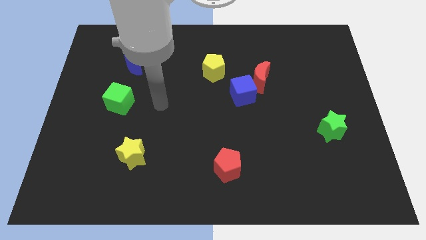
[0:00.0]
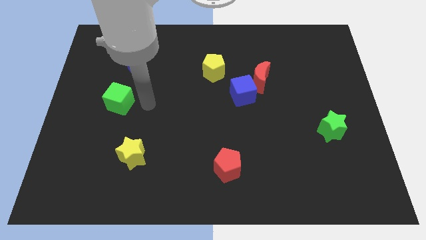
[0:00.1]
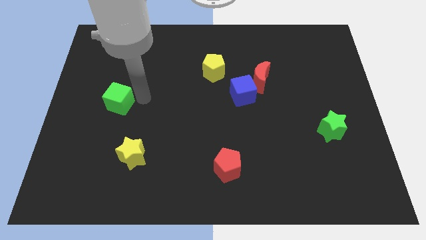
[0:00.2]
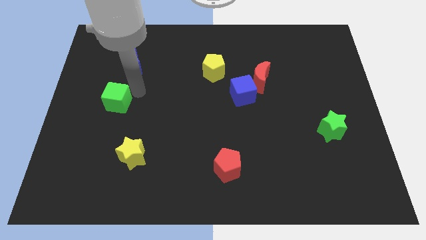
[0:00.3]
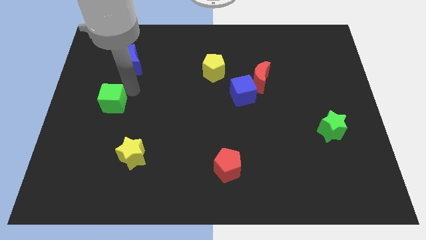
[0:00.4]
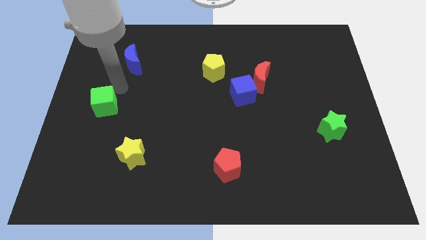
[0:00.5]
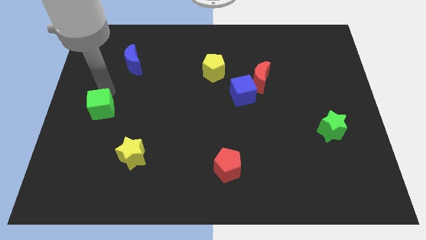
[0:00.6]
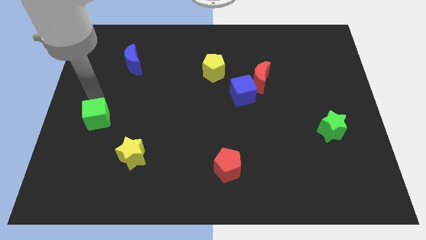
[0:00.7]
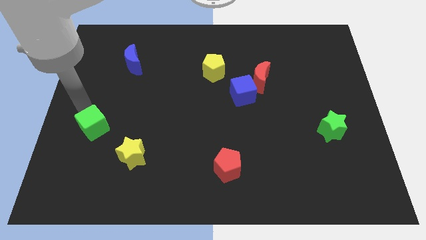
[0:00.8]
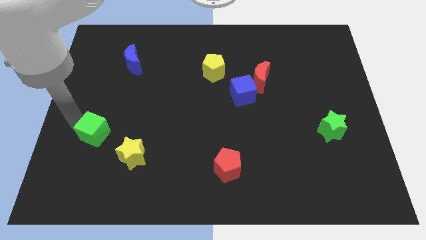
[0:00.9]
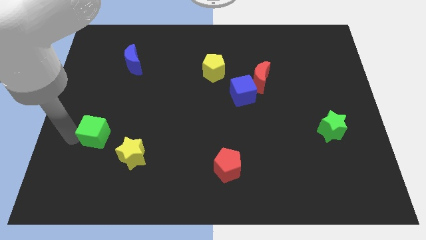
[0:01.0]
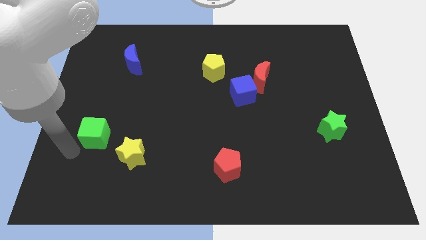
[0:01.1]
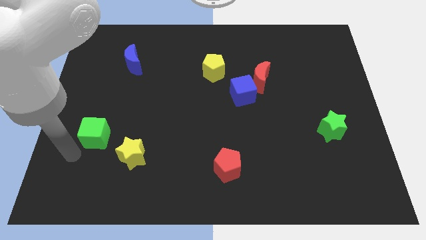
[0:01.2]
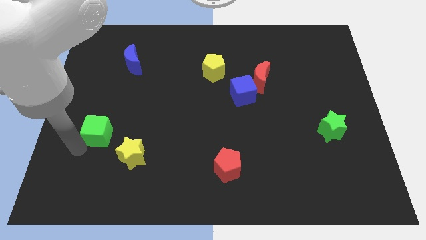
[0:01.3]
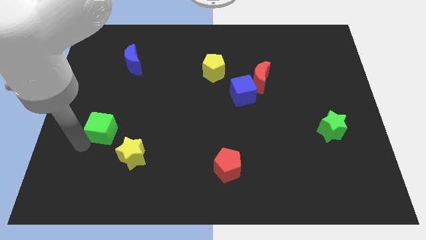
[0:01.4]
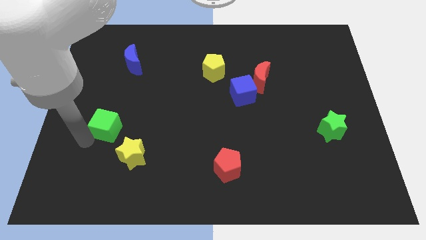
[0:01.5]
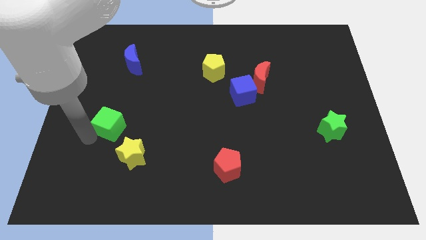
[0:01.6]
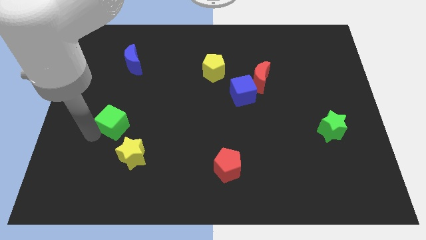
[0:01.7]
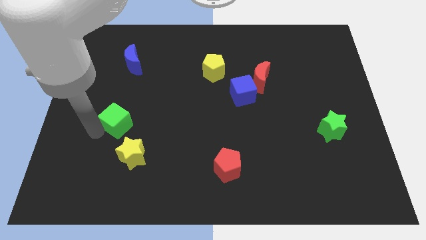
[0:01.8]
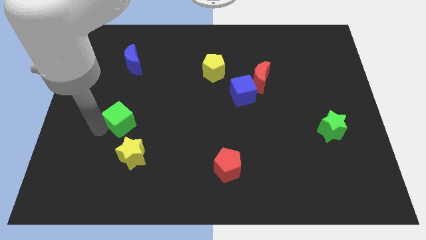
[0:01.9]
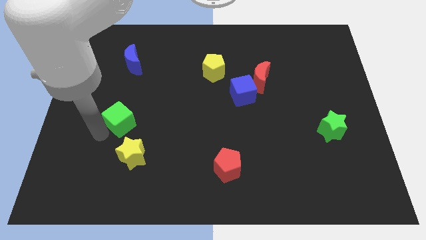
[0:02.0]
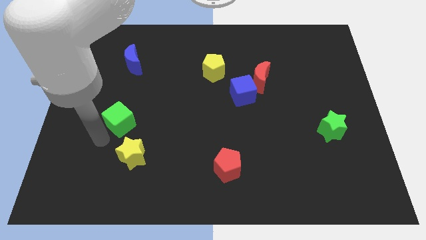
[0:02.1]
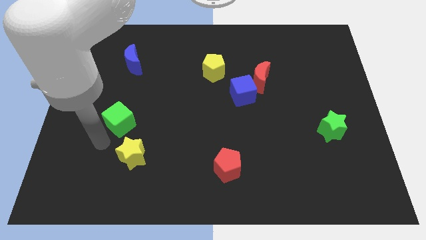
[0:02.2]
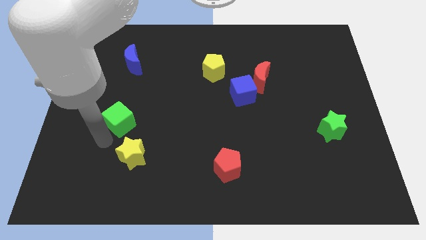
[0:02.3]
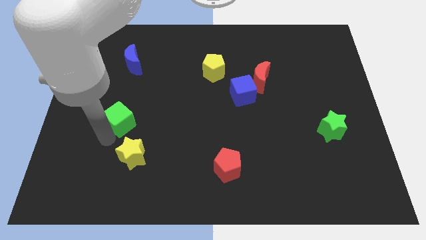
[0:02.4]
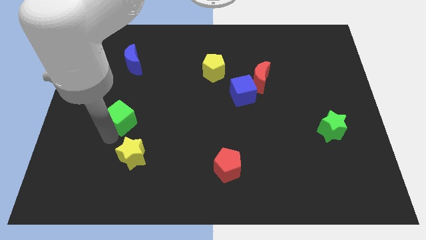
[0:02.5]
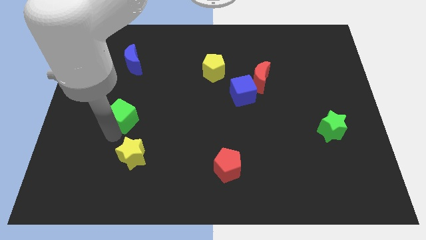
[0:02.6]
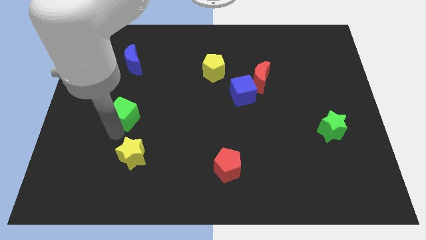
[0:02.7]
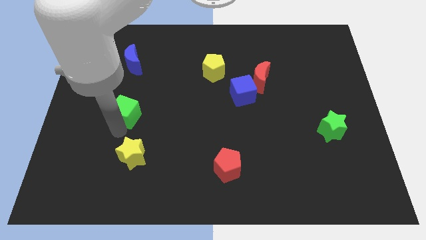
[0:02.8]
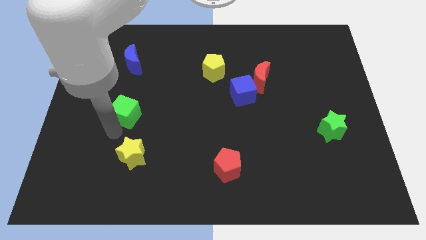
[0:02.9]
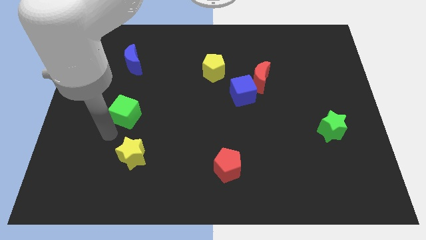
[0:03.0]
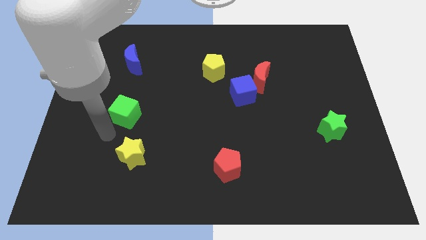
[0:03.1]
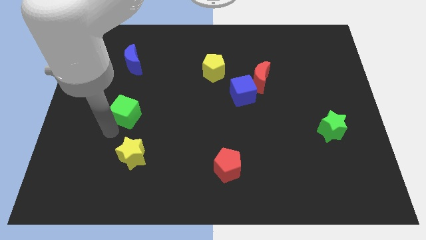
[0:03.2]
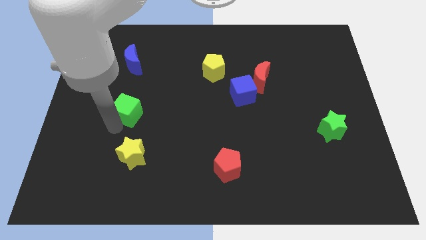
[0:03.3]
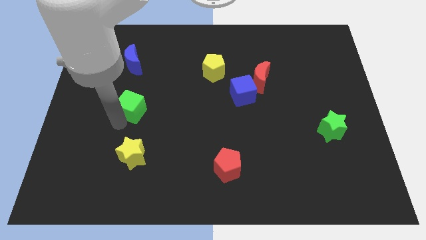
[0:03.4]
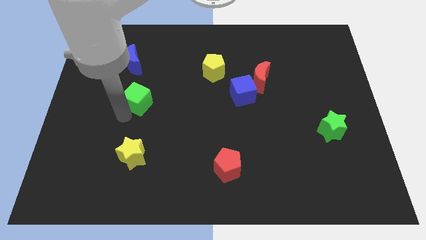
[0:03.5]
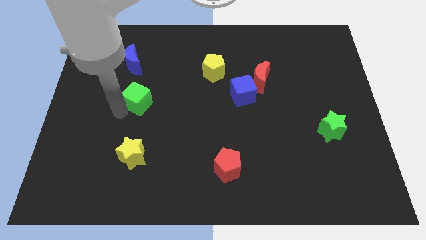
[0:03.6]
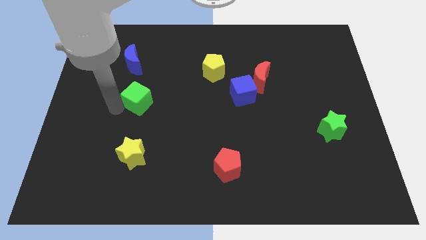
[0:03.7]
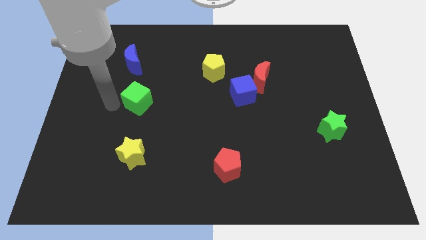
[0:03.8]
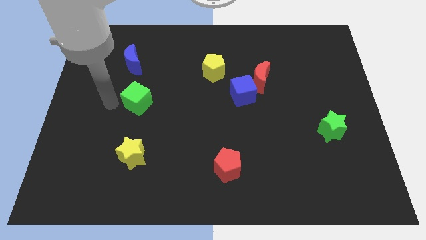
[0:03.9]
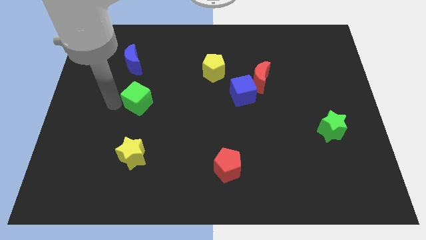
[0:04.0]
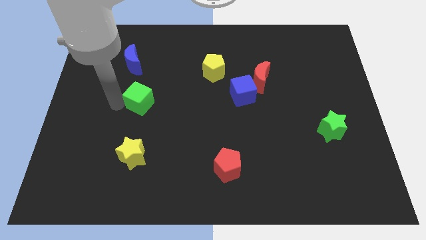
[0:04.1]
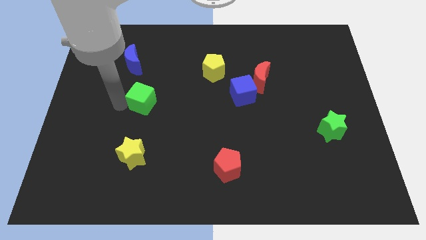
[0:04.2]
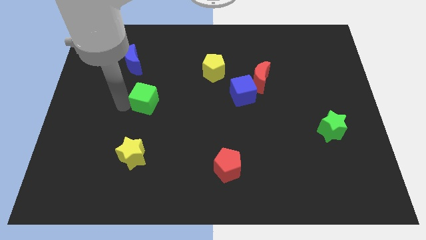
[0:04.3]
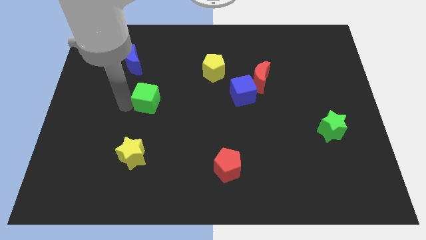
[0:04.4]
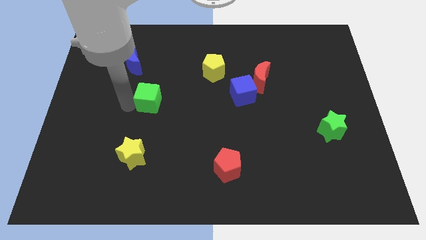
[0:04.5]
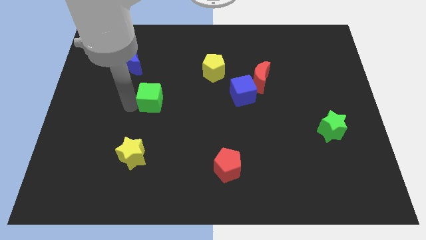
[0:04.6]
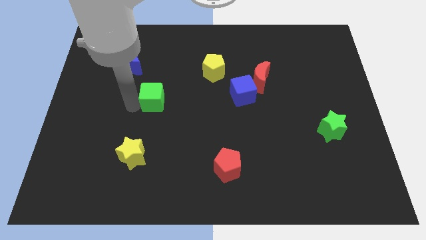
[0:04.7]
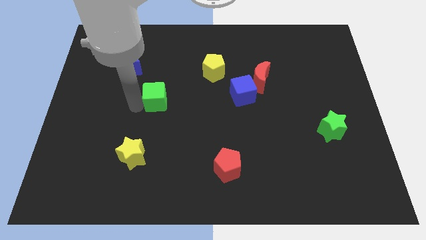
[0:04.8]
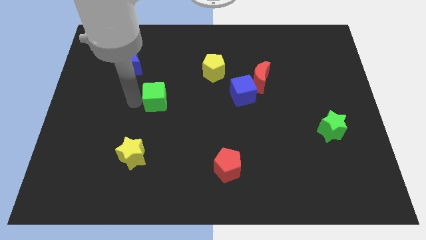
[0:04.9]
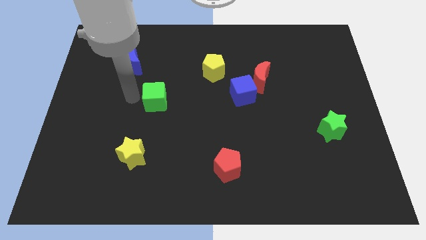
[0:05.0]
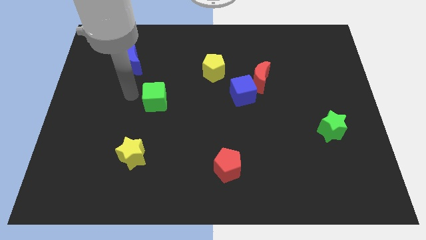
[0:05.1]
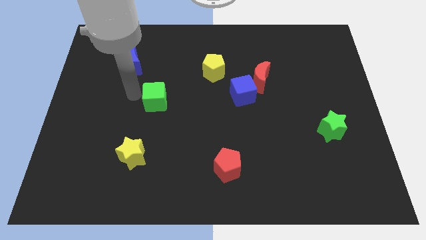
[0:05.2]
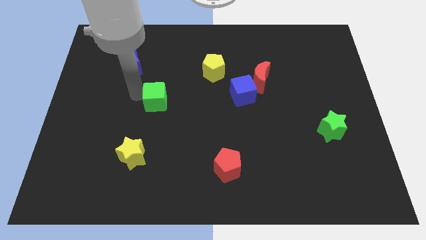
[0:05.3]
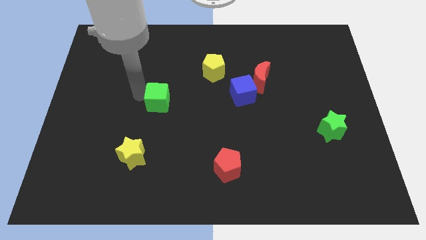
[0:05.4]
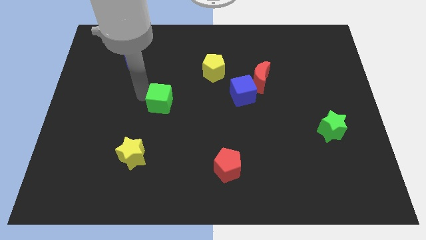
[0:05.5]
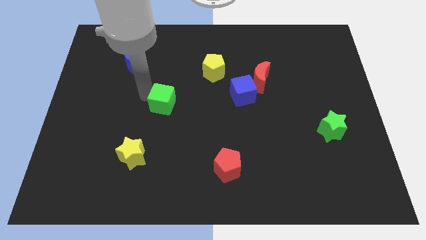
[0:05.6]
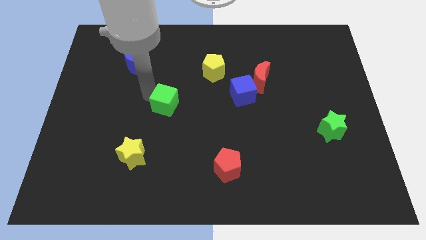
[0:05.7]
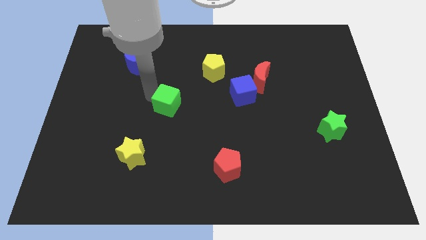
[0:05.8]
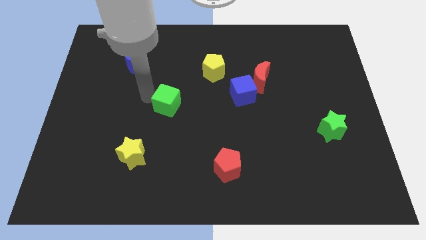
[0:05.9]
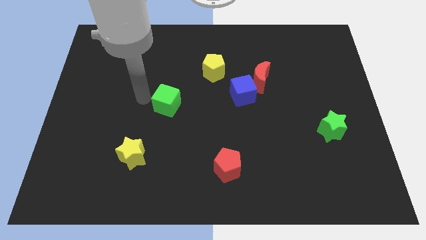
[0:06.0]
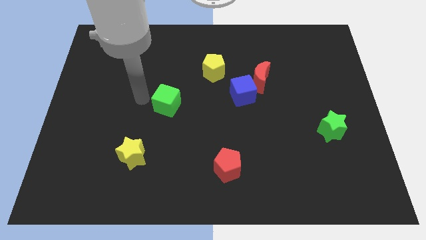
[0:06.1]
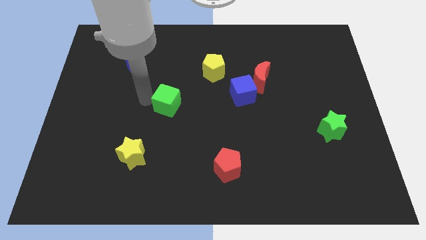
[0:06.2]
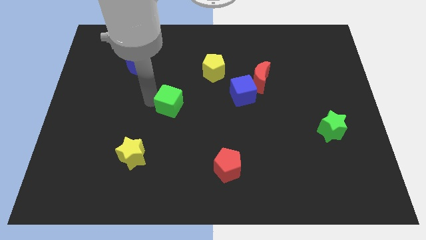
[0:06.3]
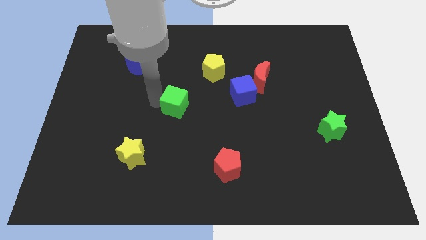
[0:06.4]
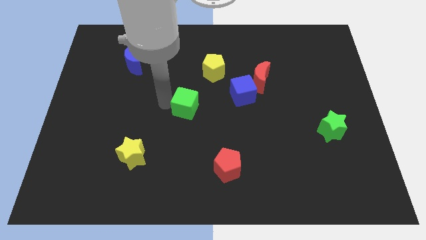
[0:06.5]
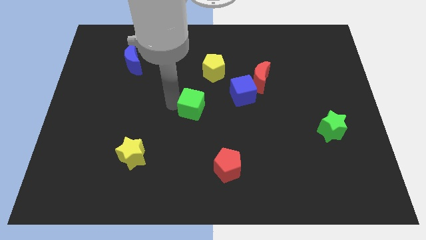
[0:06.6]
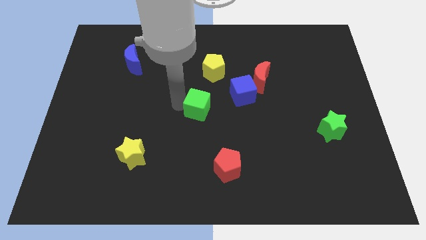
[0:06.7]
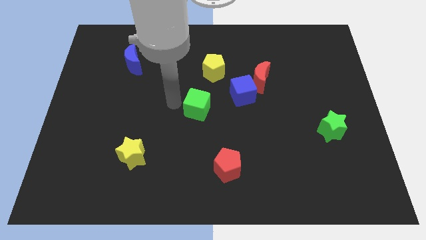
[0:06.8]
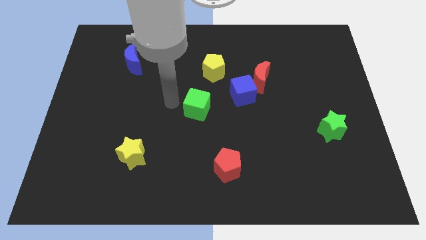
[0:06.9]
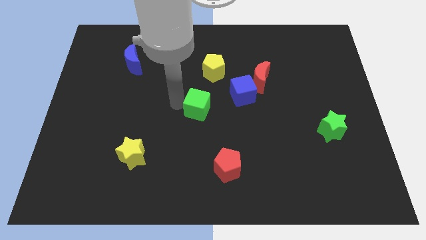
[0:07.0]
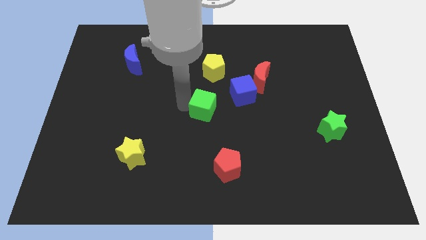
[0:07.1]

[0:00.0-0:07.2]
slide the green cube to the right

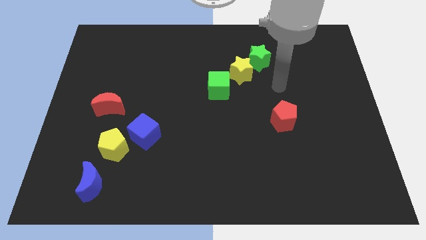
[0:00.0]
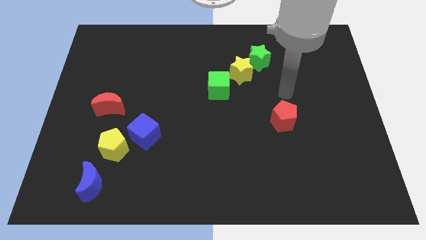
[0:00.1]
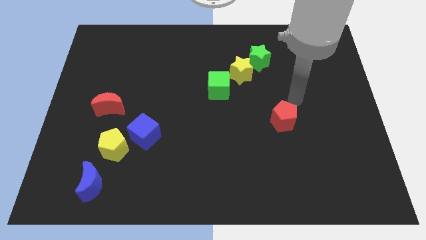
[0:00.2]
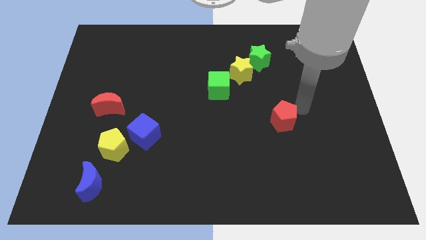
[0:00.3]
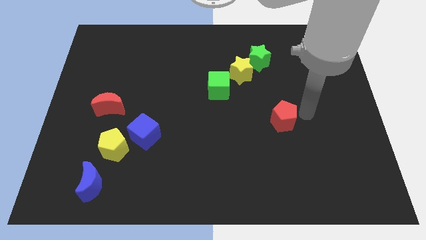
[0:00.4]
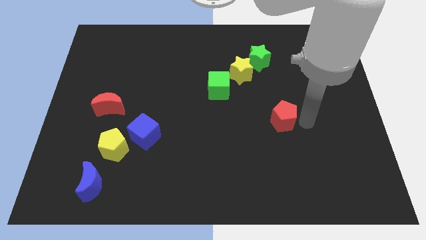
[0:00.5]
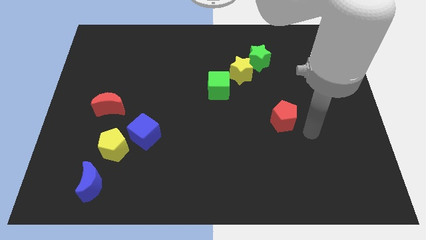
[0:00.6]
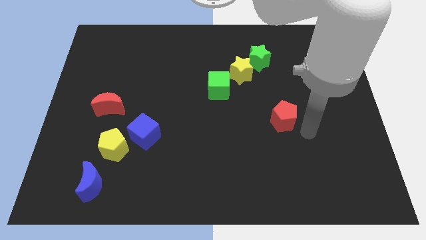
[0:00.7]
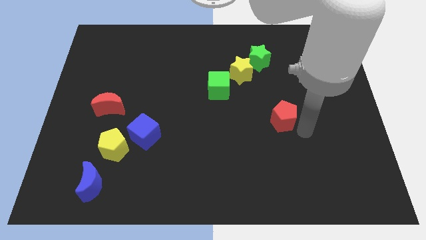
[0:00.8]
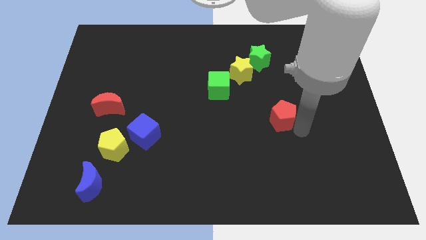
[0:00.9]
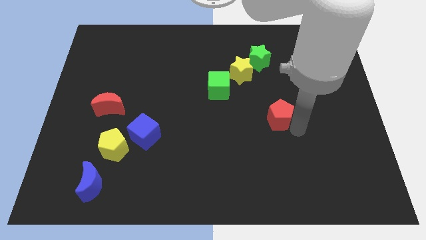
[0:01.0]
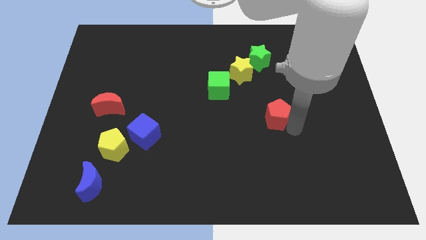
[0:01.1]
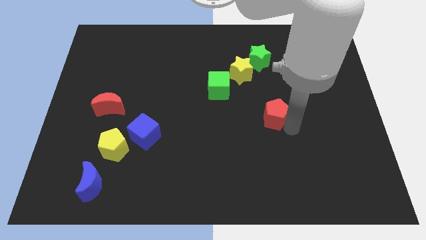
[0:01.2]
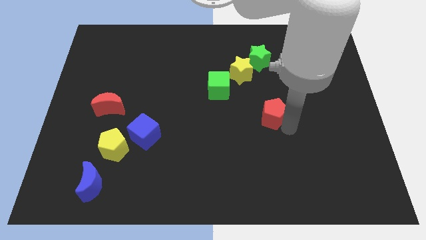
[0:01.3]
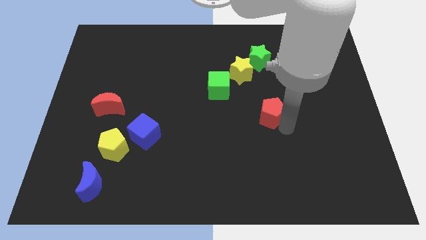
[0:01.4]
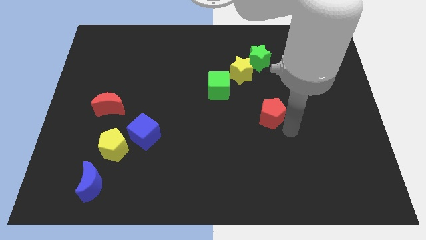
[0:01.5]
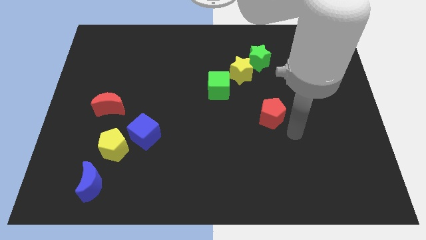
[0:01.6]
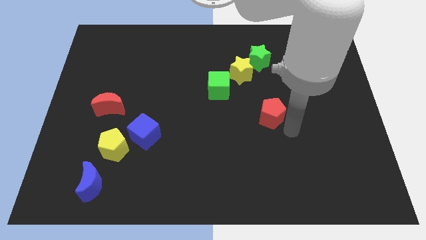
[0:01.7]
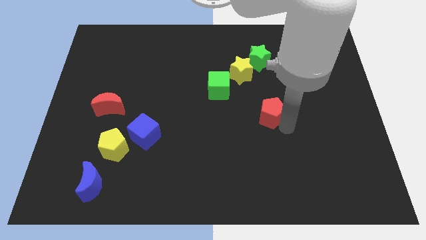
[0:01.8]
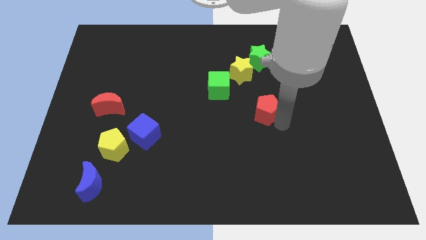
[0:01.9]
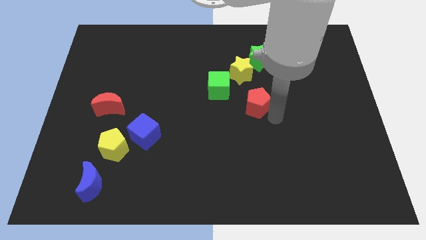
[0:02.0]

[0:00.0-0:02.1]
slightly move the red pentagon upwards and to the left diagonally
